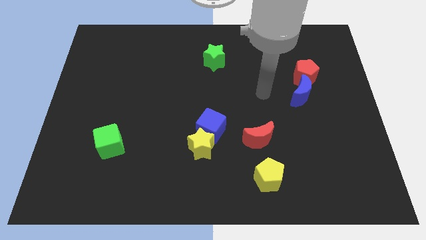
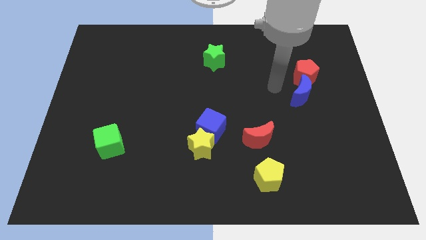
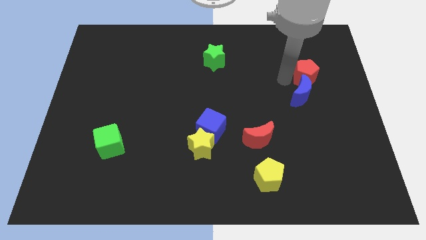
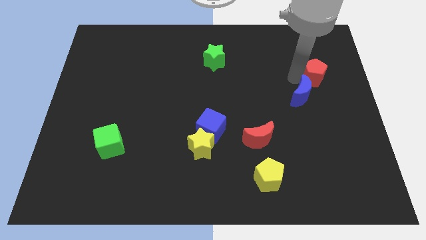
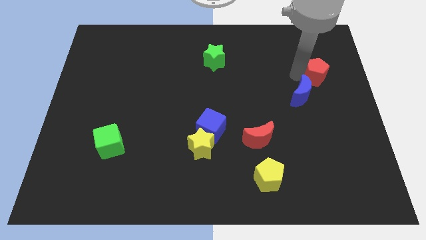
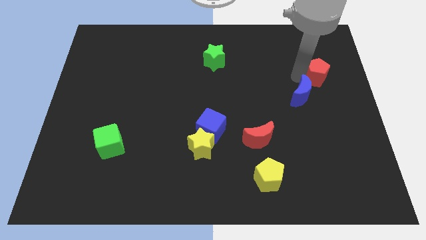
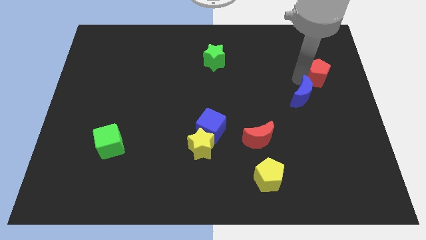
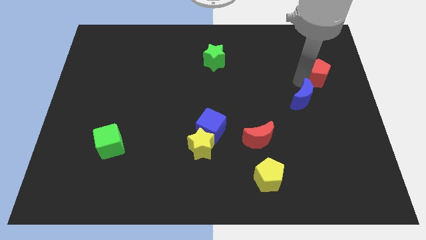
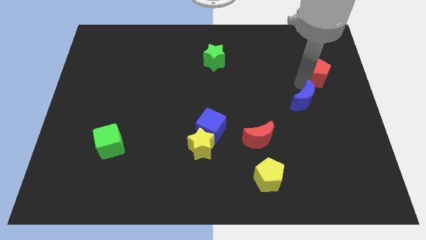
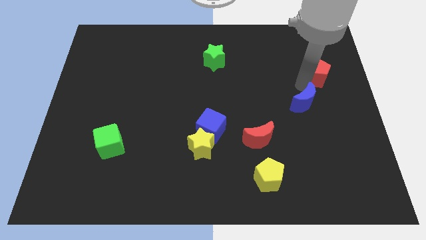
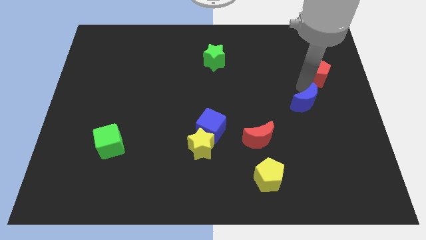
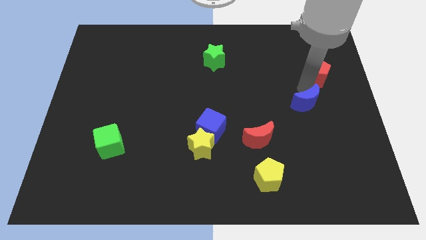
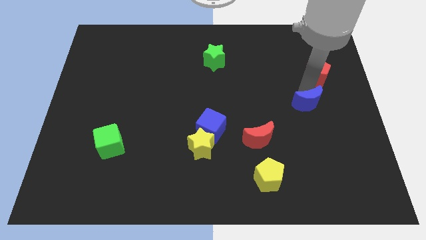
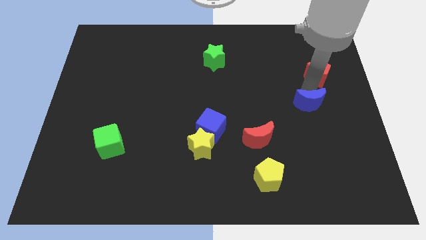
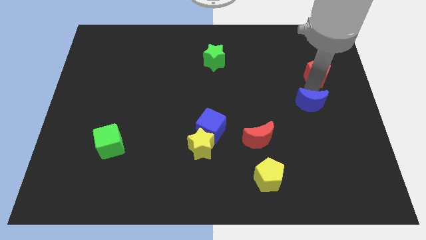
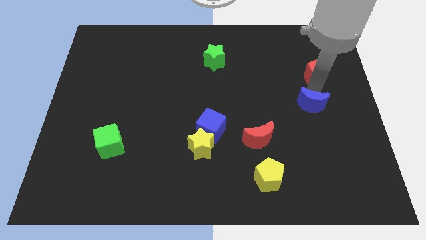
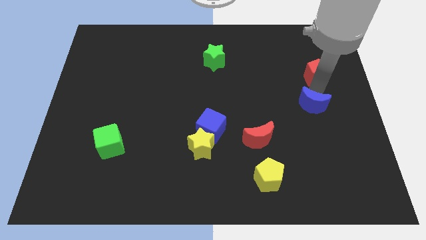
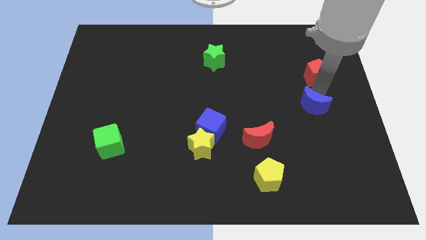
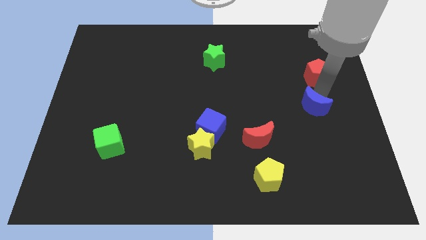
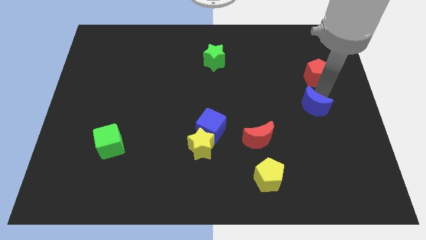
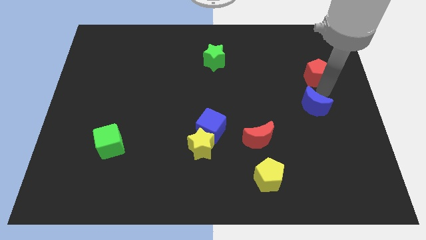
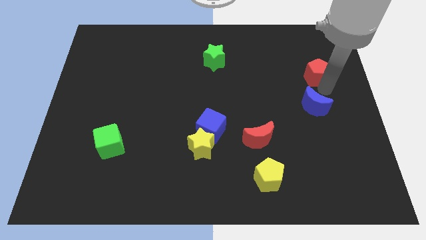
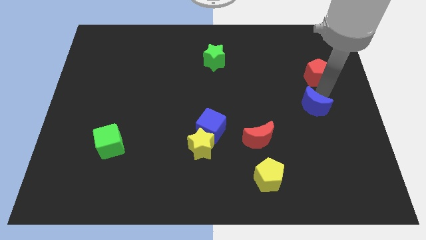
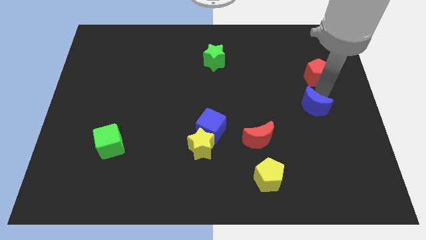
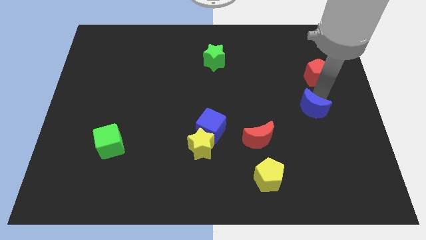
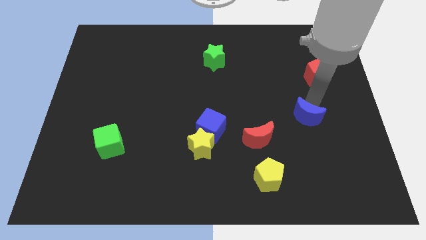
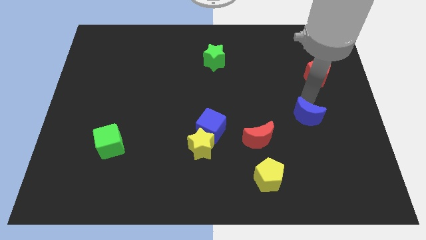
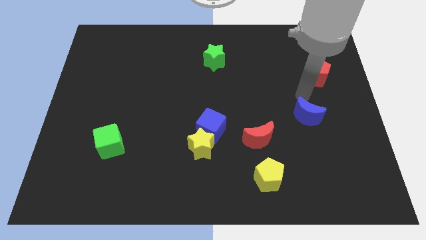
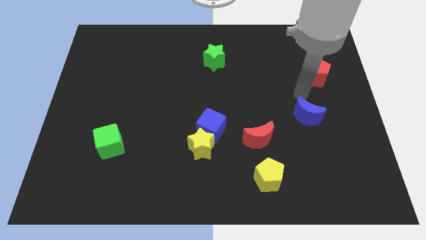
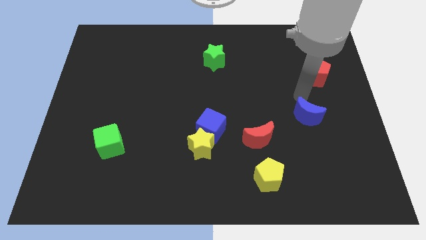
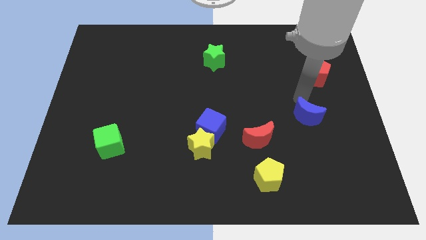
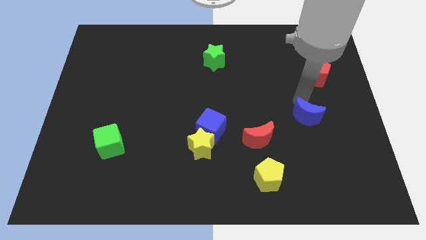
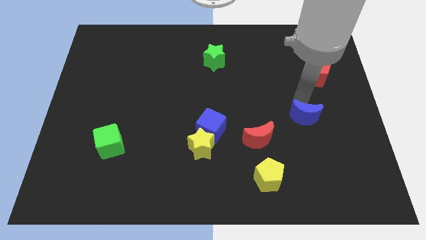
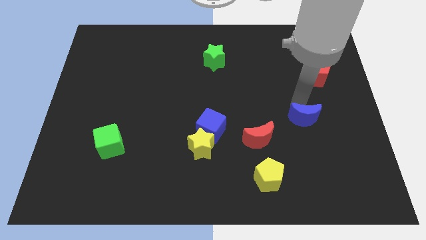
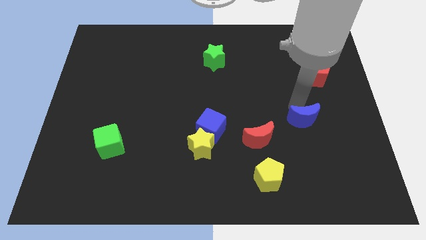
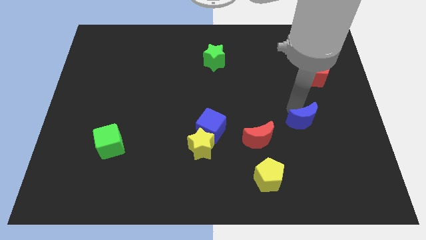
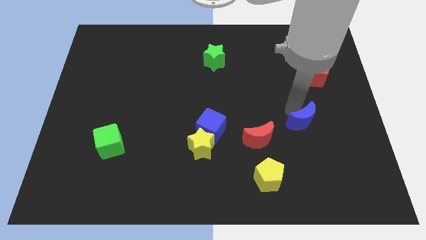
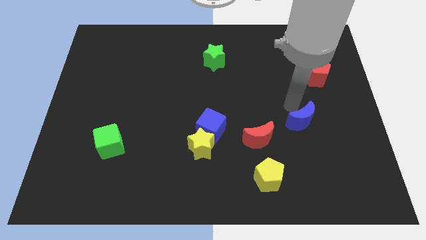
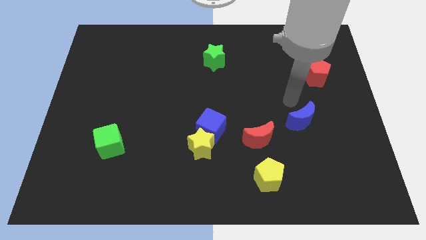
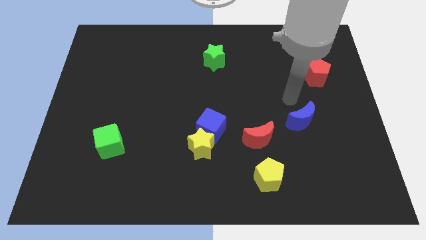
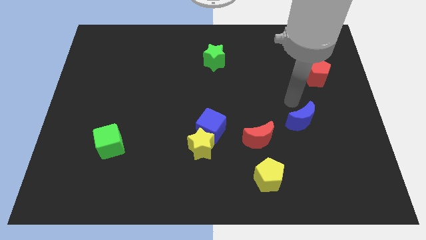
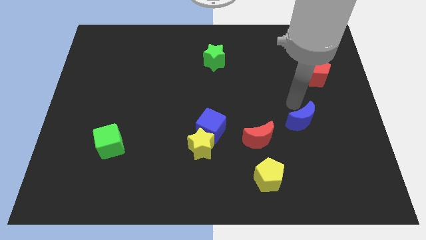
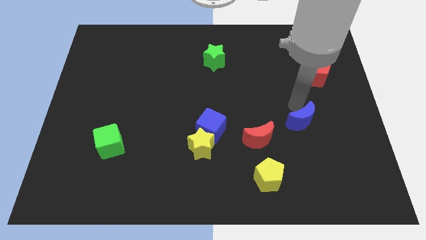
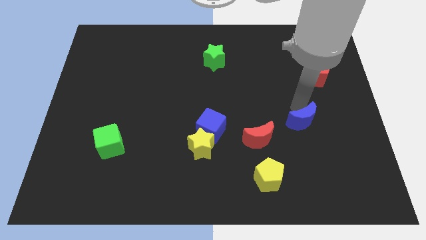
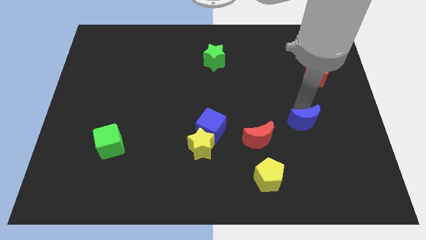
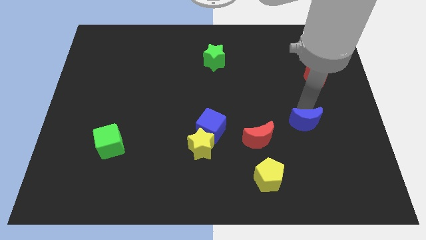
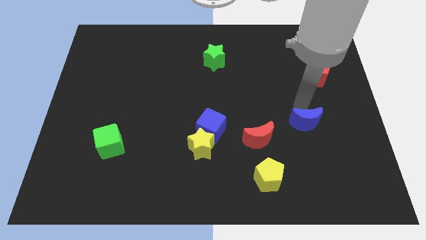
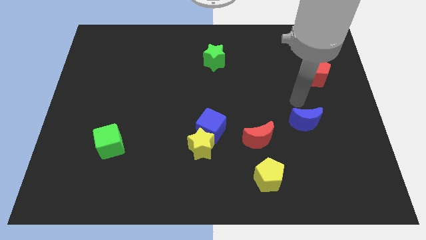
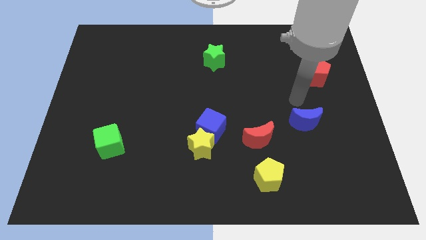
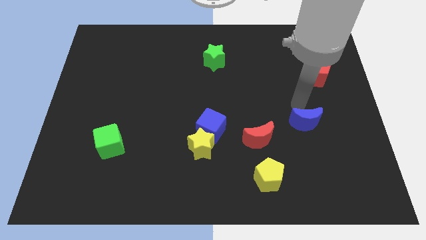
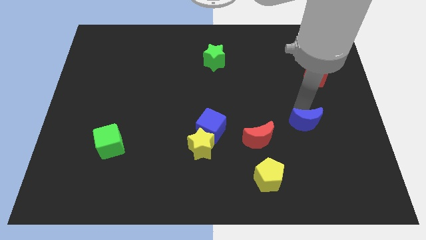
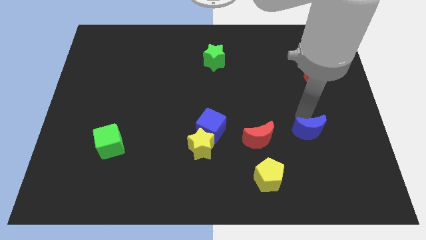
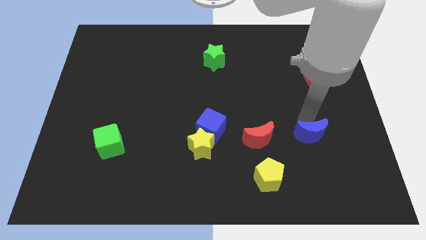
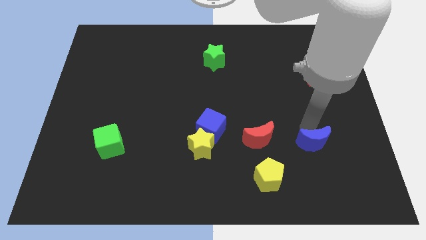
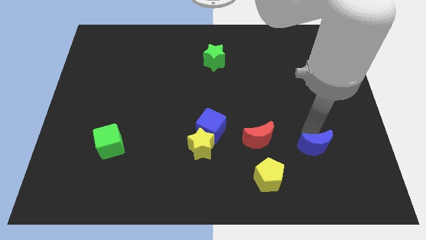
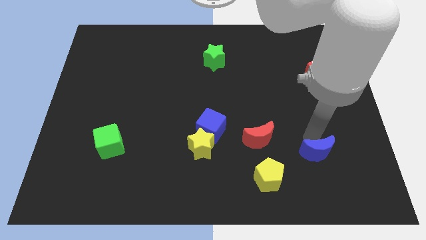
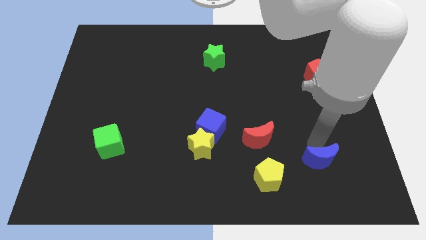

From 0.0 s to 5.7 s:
put the blue moon just right of the yellow pentagon

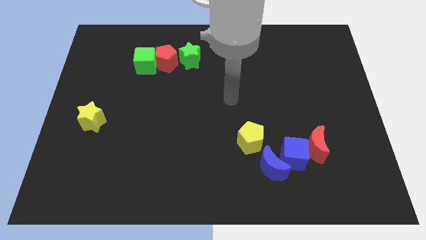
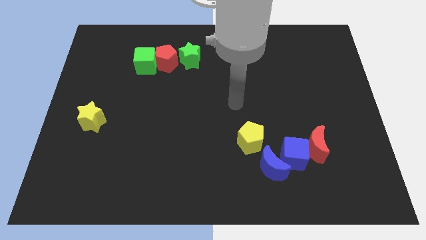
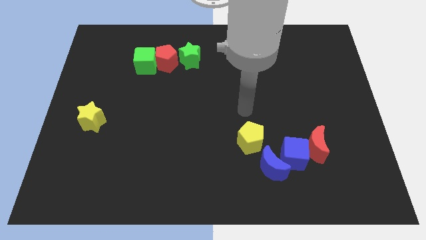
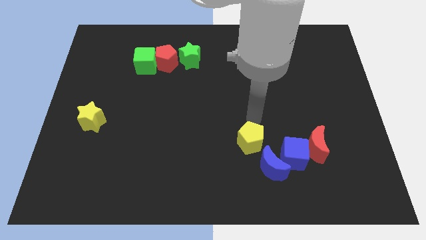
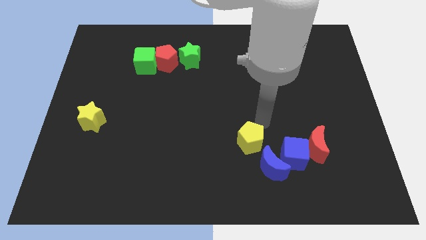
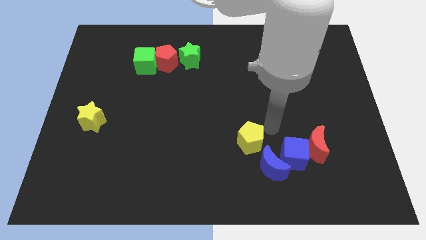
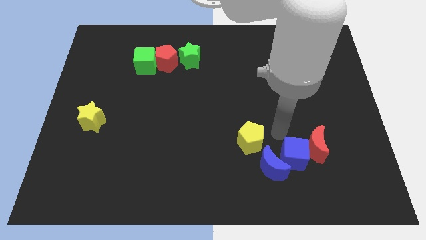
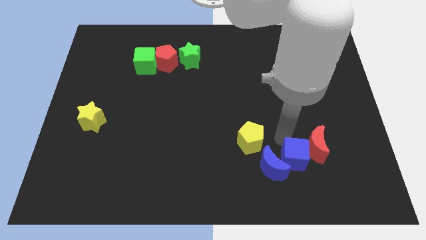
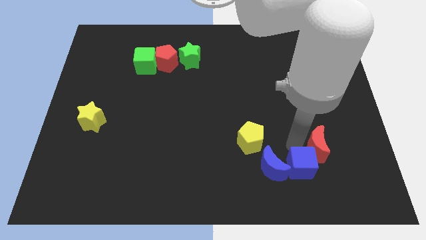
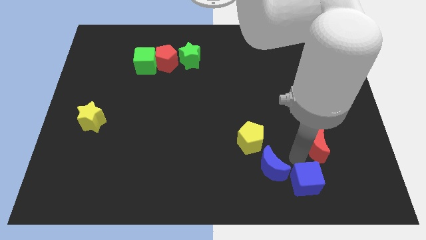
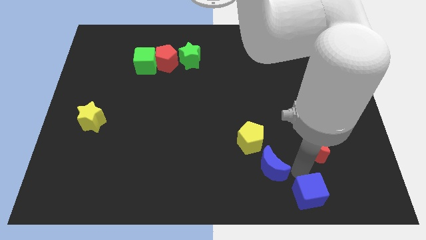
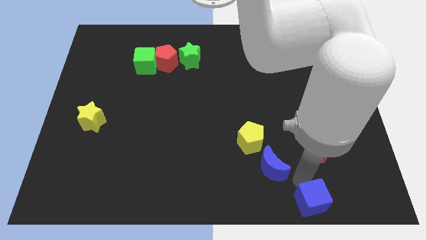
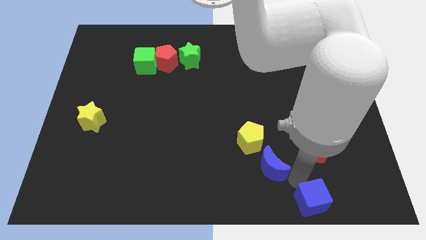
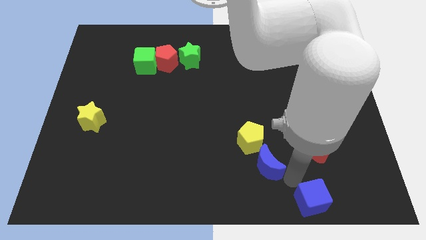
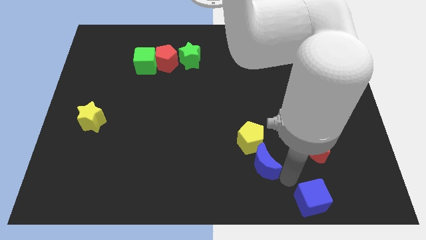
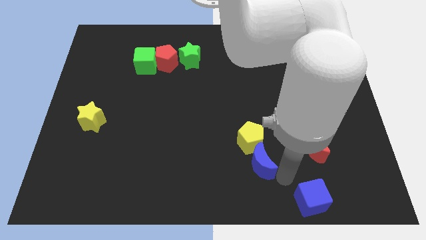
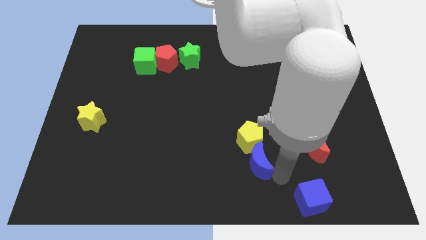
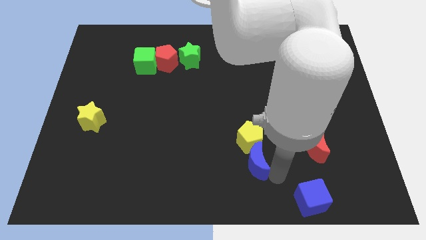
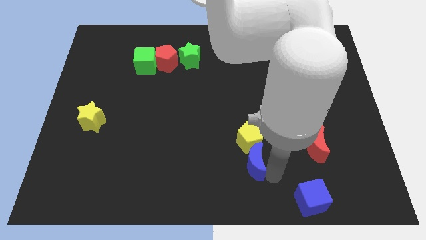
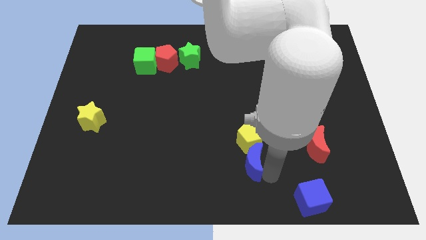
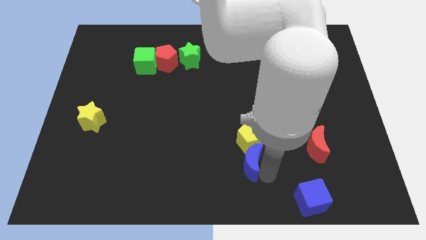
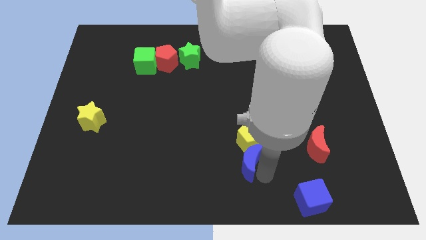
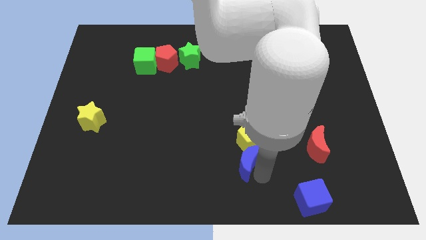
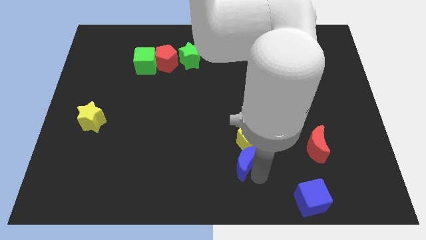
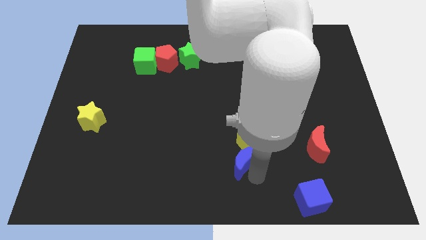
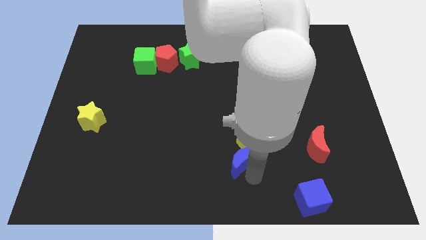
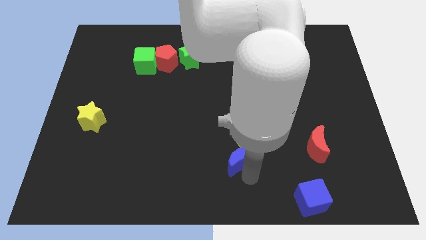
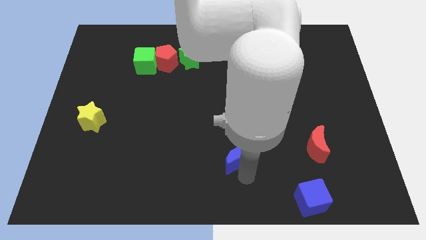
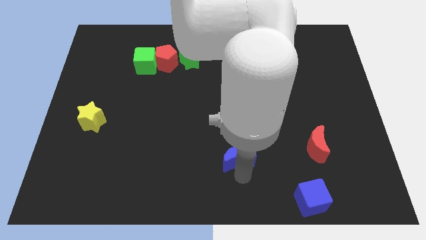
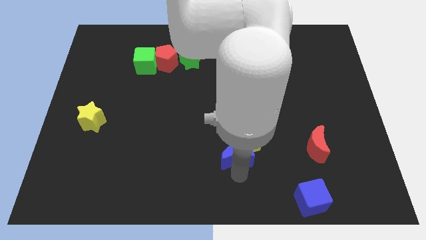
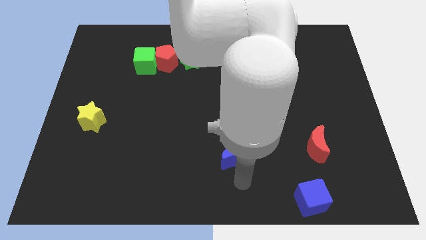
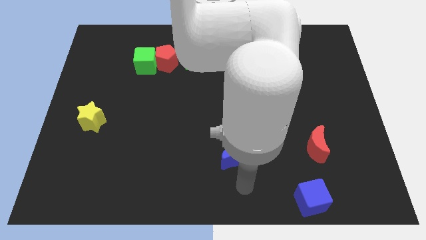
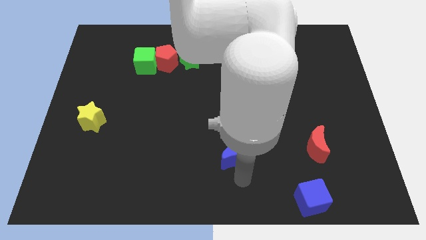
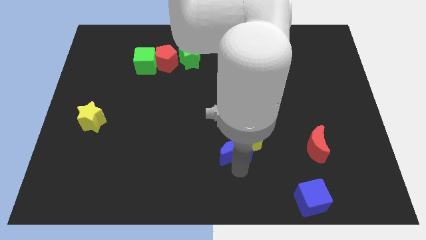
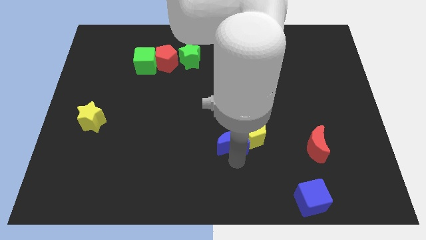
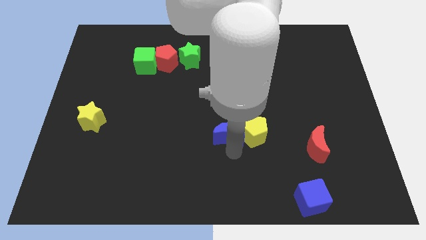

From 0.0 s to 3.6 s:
push the blue moon diagonally up and to the left of the yellow pentagon
